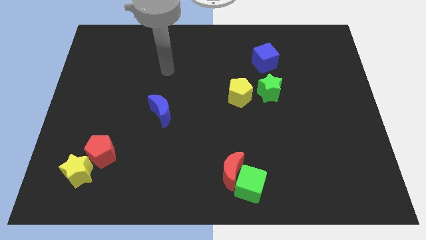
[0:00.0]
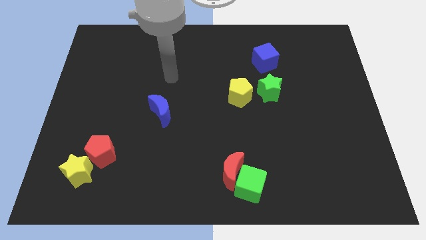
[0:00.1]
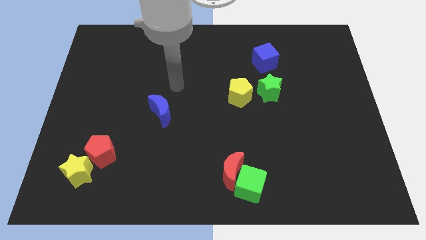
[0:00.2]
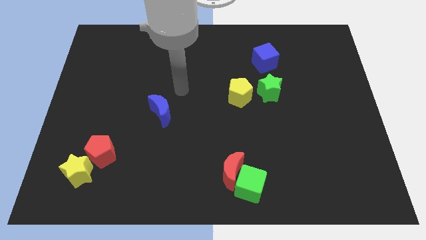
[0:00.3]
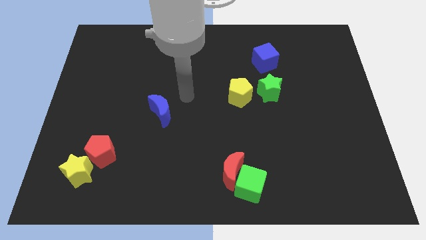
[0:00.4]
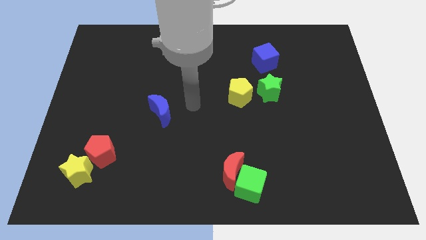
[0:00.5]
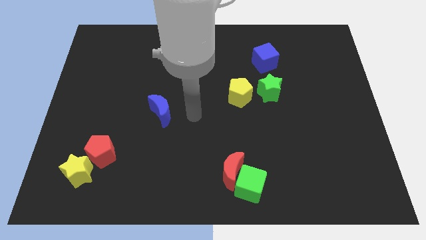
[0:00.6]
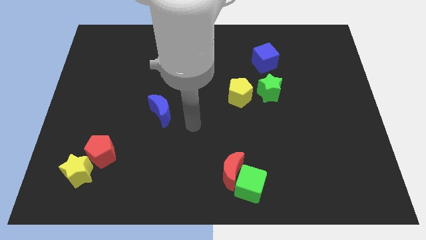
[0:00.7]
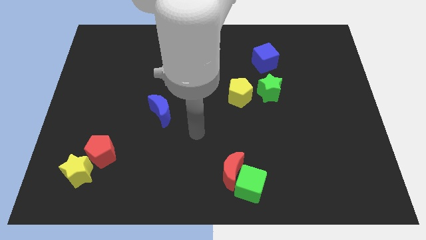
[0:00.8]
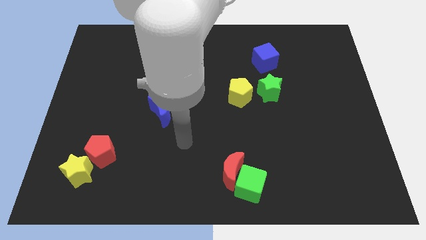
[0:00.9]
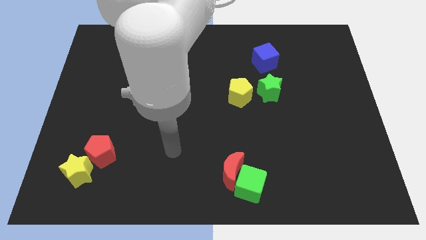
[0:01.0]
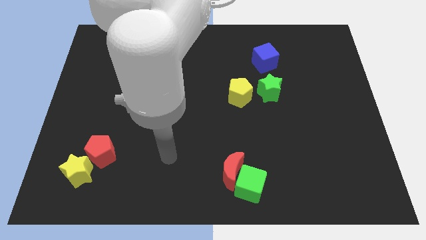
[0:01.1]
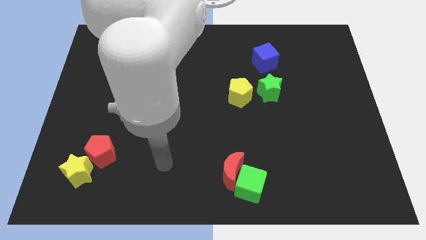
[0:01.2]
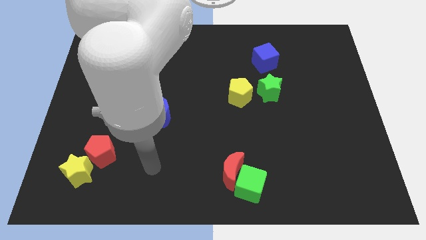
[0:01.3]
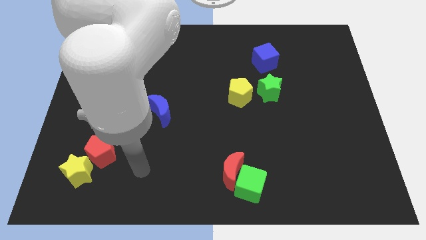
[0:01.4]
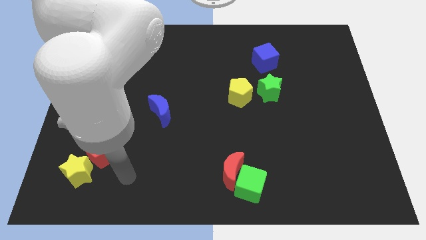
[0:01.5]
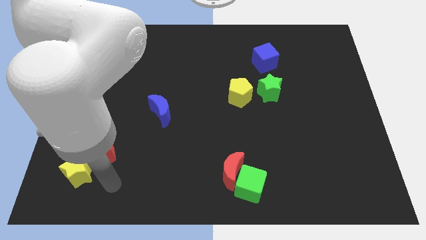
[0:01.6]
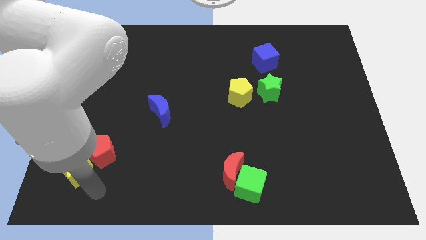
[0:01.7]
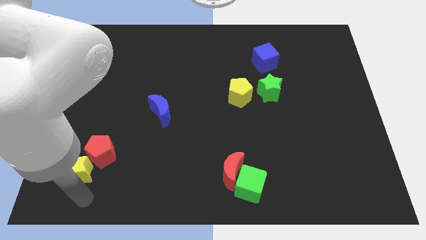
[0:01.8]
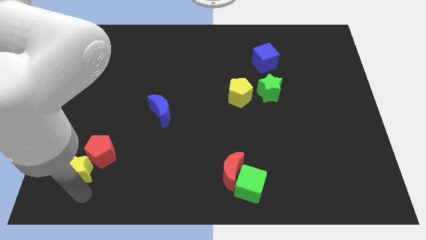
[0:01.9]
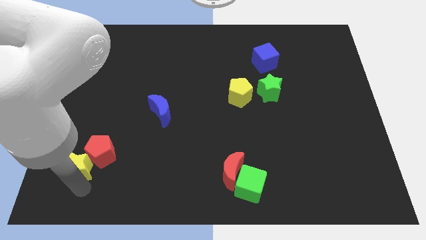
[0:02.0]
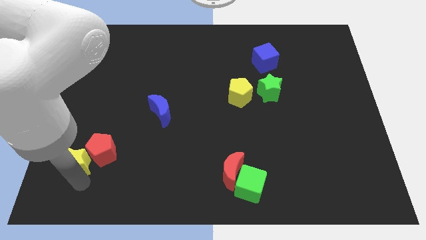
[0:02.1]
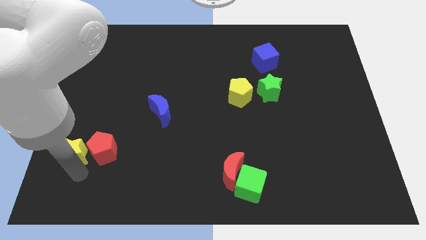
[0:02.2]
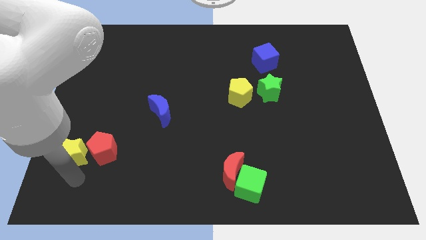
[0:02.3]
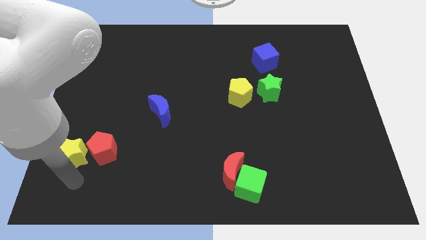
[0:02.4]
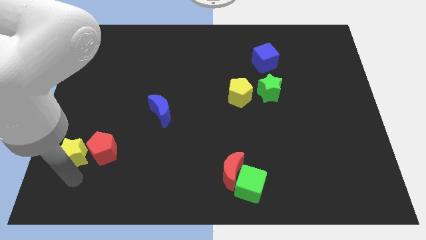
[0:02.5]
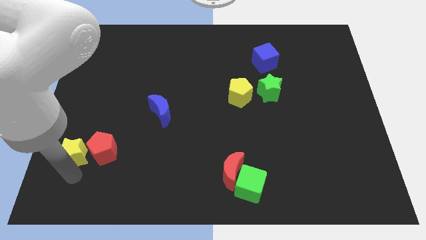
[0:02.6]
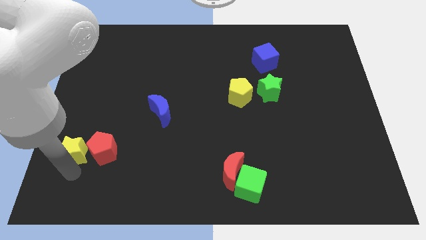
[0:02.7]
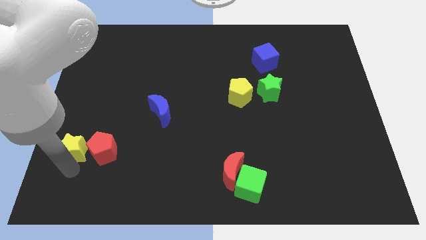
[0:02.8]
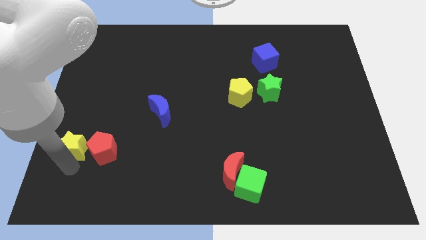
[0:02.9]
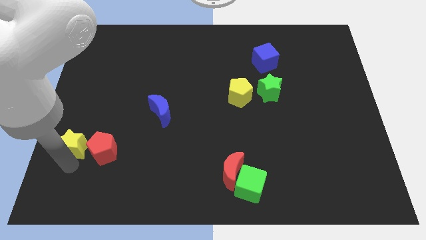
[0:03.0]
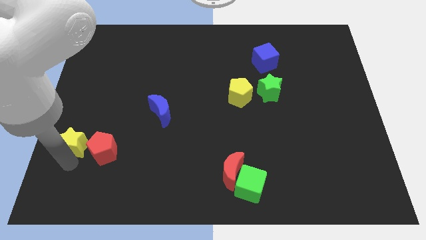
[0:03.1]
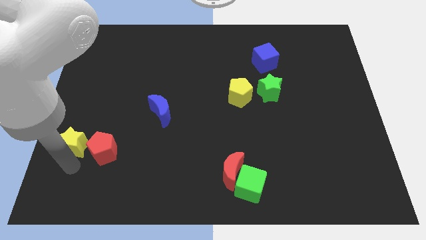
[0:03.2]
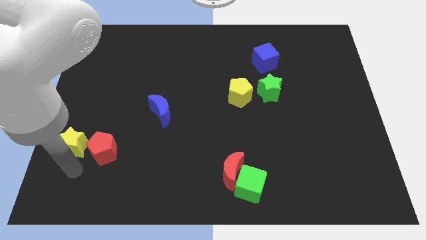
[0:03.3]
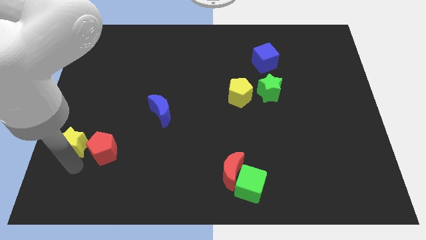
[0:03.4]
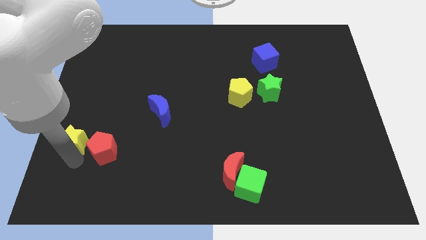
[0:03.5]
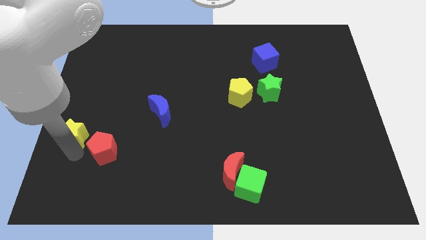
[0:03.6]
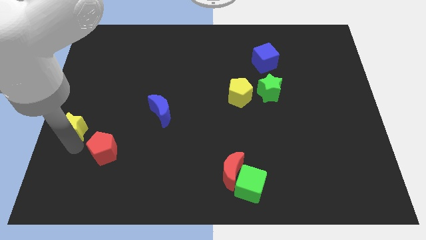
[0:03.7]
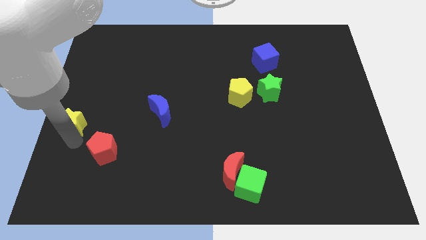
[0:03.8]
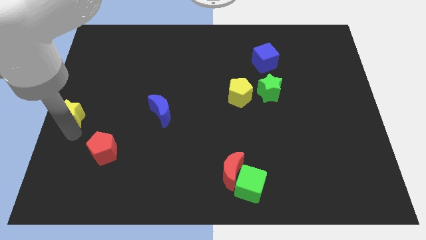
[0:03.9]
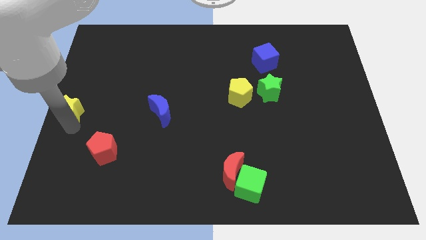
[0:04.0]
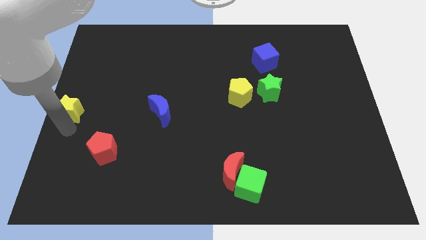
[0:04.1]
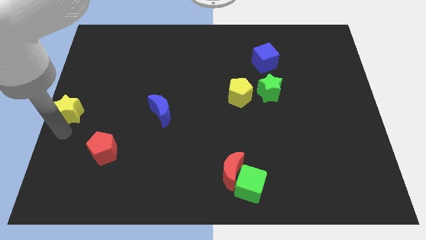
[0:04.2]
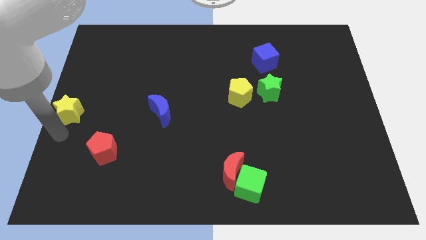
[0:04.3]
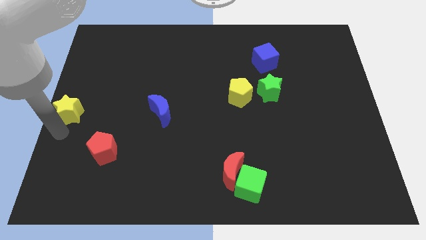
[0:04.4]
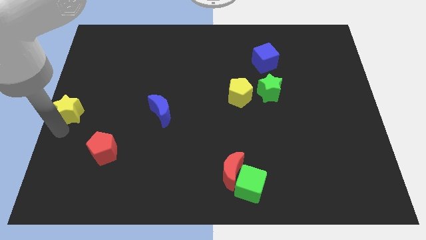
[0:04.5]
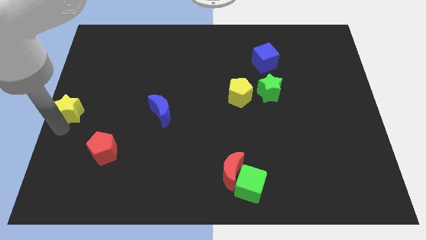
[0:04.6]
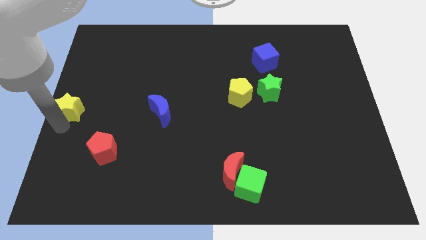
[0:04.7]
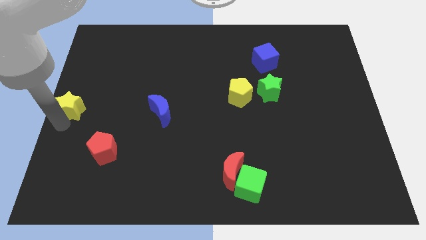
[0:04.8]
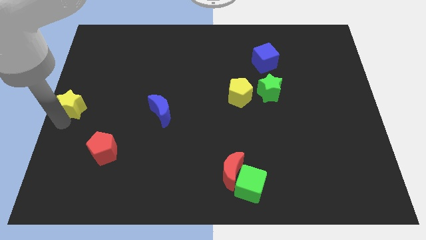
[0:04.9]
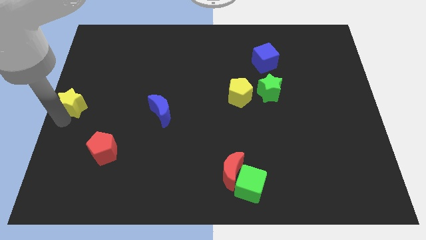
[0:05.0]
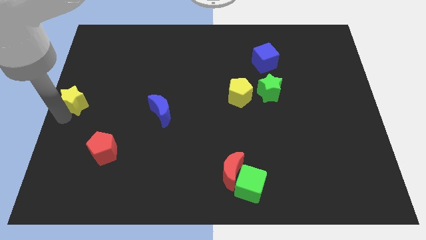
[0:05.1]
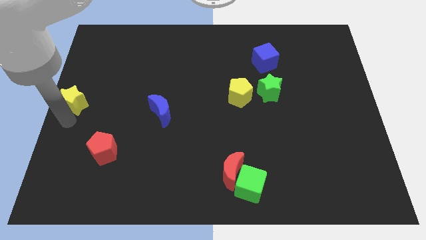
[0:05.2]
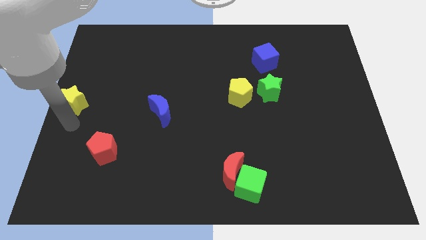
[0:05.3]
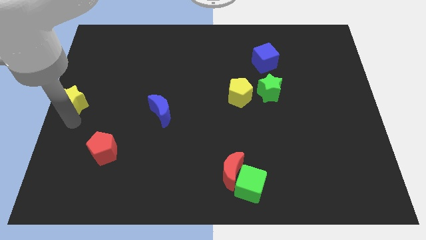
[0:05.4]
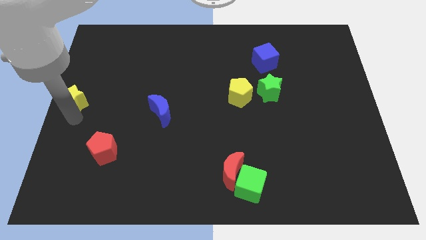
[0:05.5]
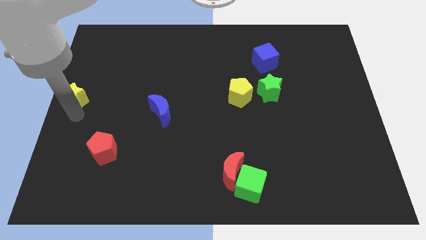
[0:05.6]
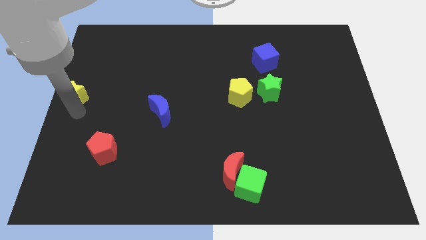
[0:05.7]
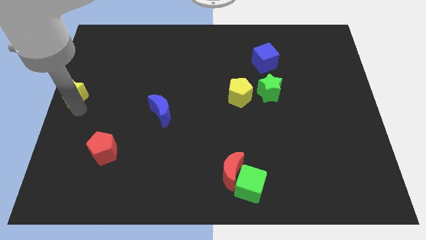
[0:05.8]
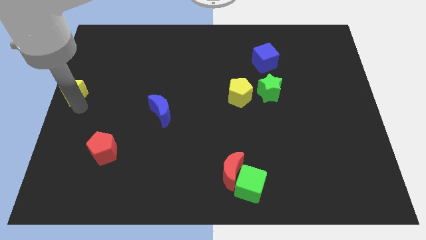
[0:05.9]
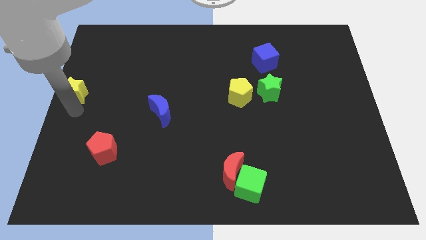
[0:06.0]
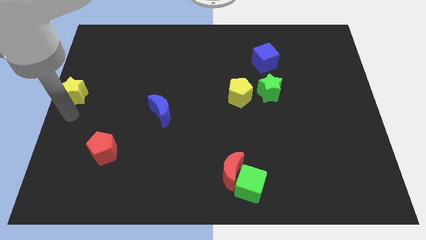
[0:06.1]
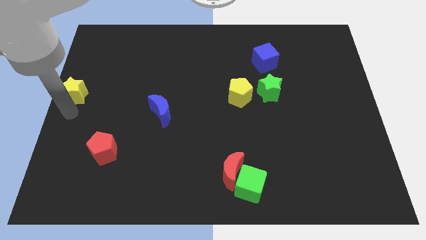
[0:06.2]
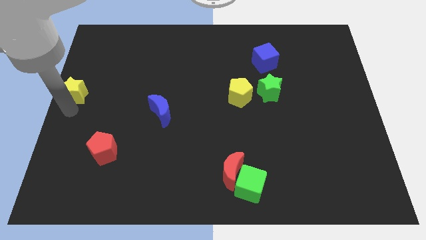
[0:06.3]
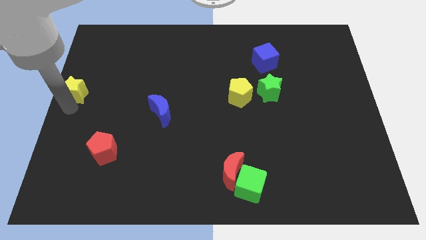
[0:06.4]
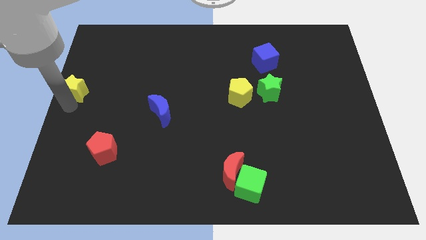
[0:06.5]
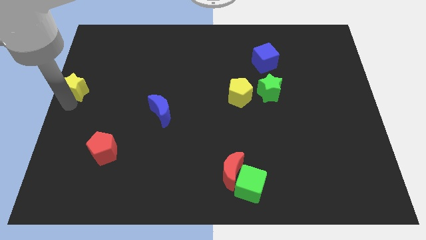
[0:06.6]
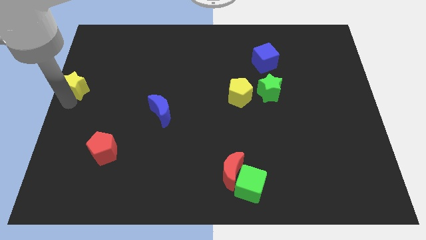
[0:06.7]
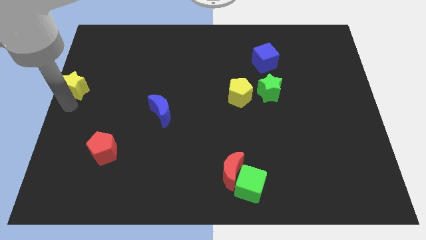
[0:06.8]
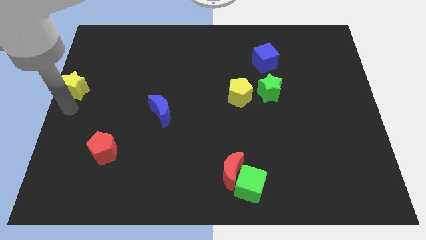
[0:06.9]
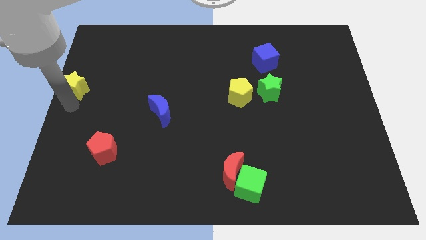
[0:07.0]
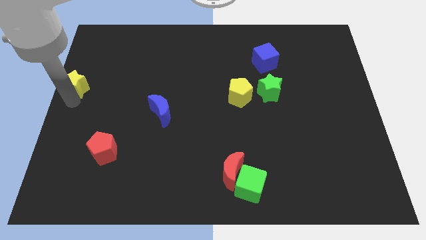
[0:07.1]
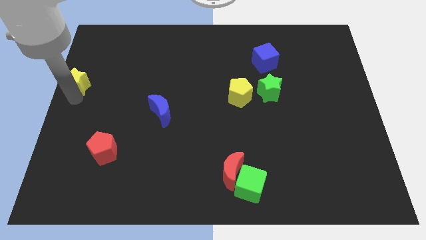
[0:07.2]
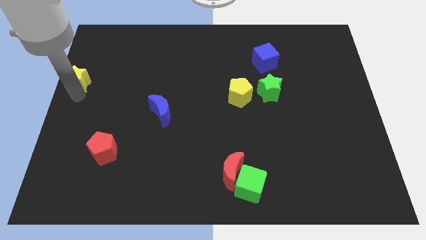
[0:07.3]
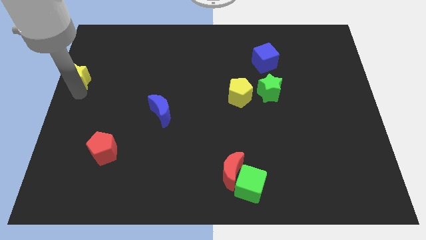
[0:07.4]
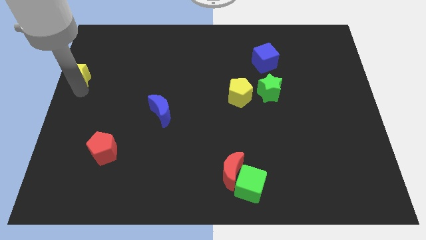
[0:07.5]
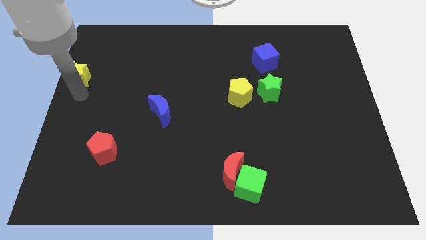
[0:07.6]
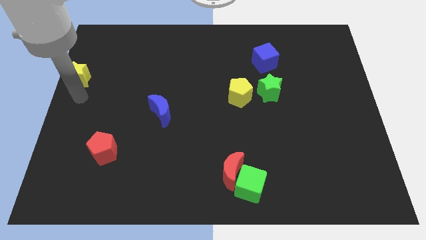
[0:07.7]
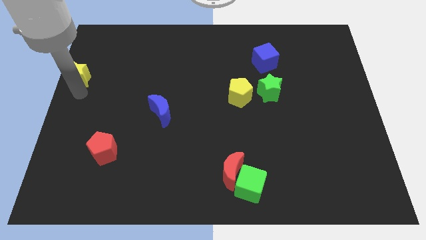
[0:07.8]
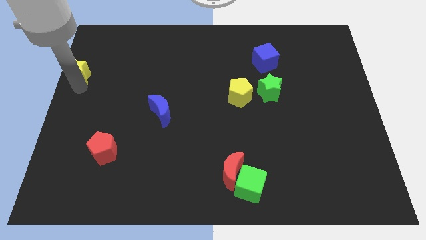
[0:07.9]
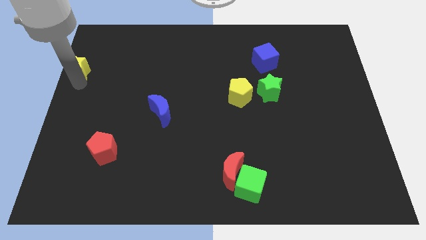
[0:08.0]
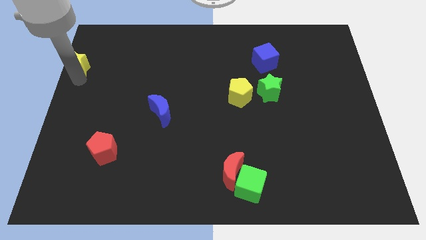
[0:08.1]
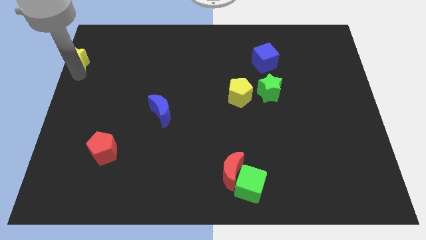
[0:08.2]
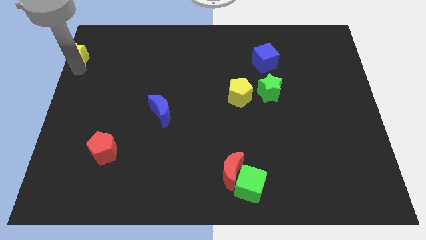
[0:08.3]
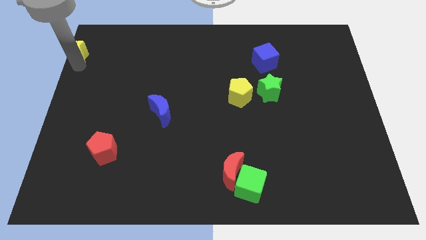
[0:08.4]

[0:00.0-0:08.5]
push the yellow star to the top left
